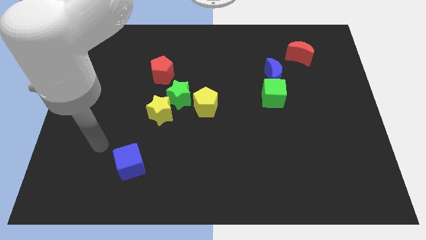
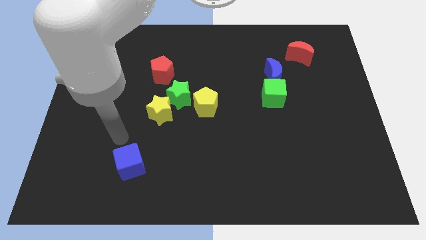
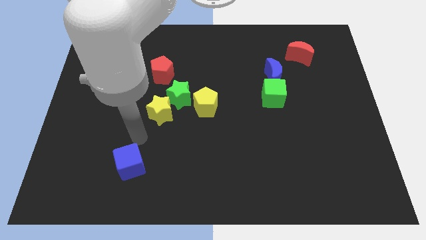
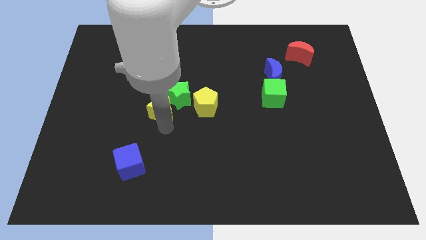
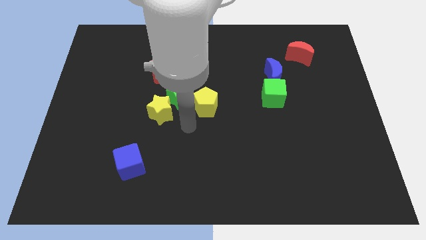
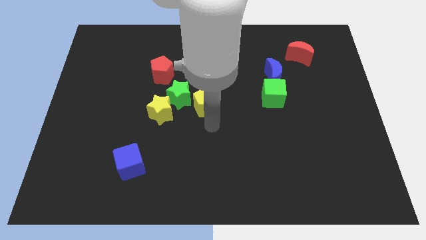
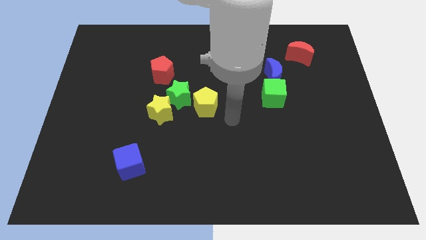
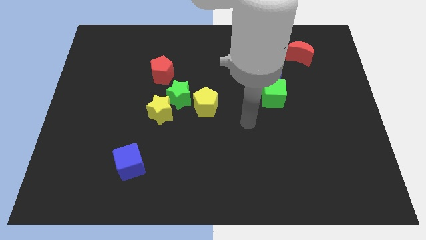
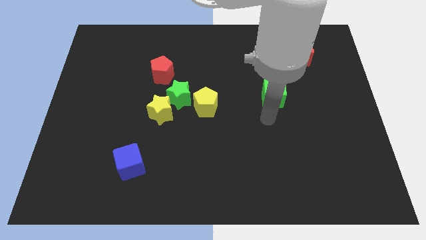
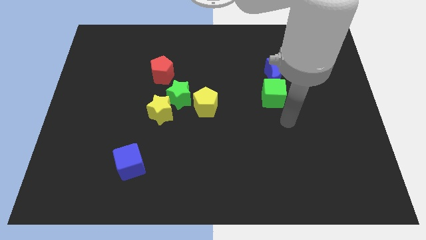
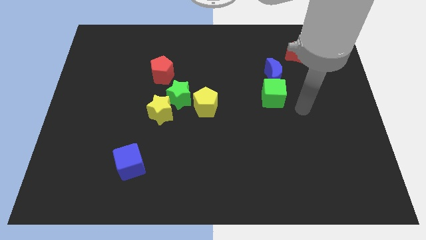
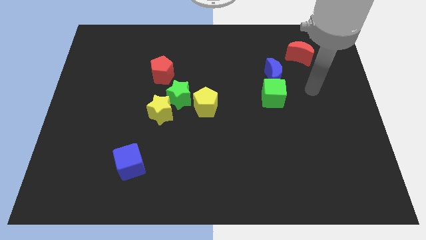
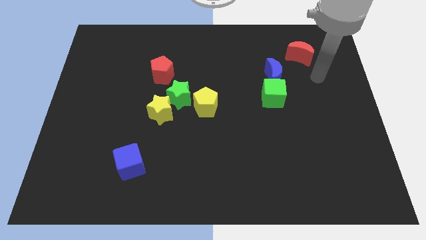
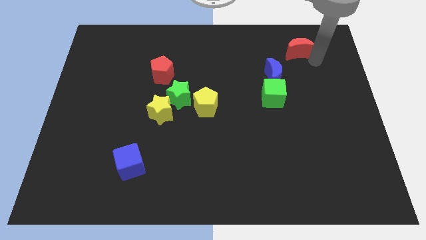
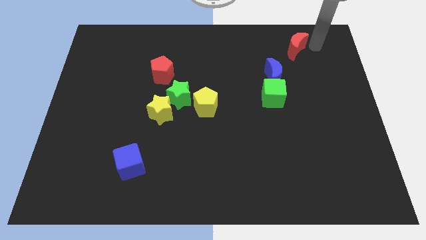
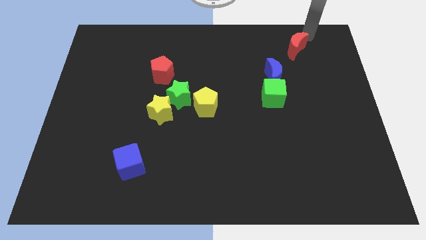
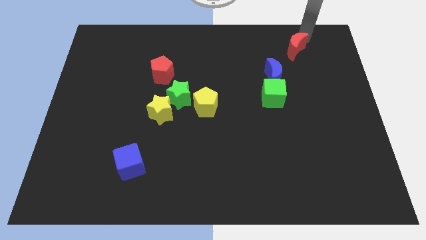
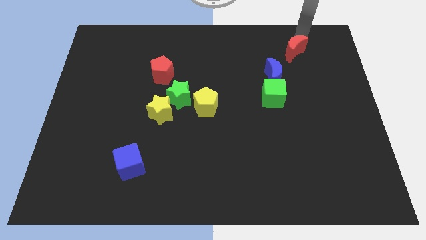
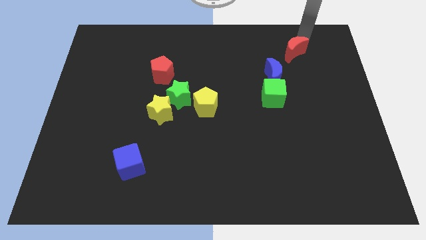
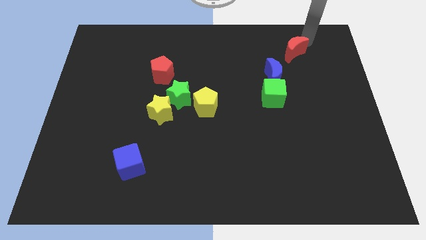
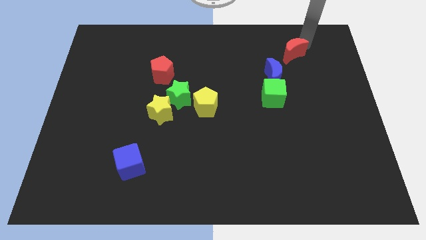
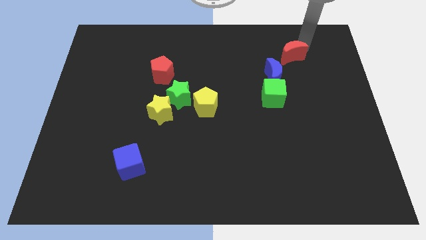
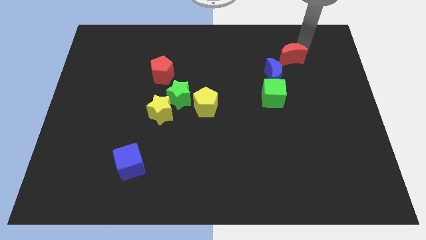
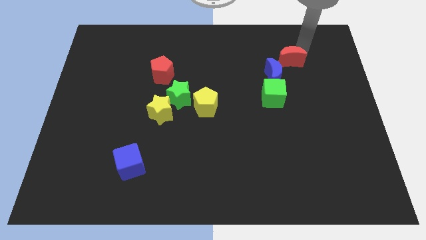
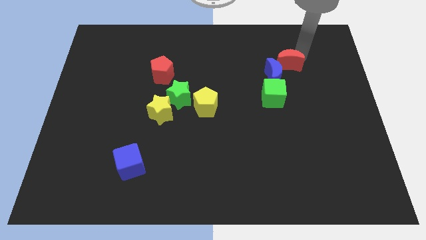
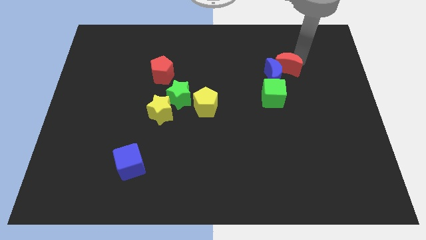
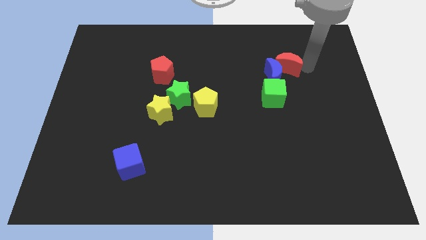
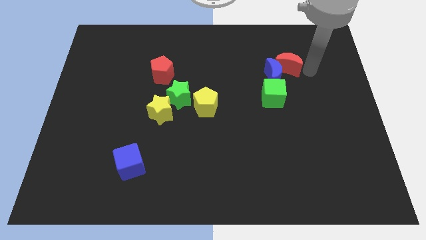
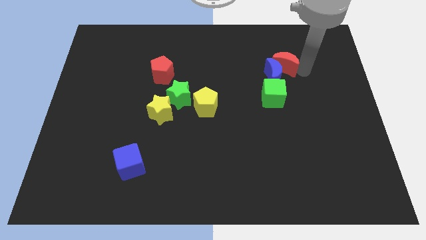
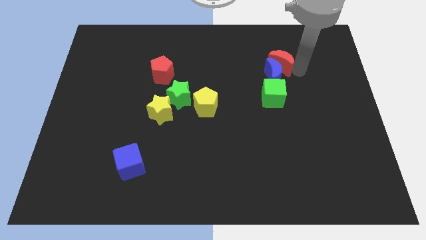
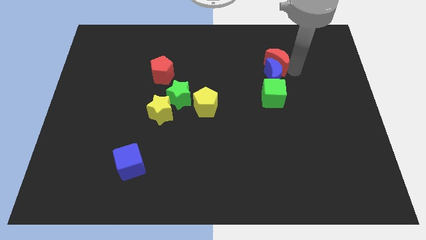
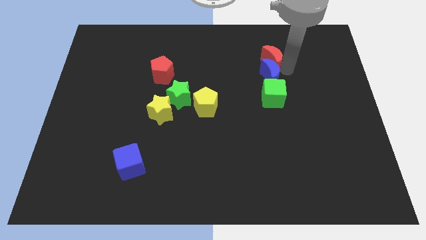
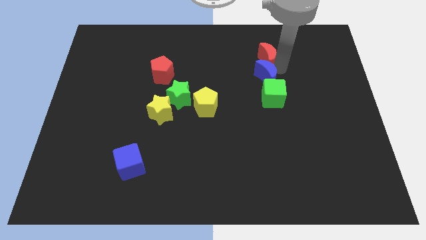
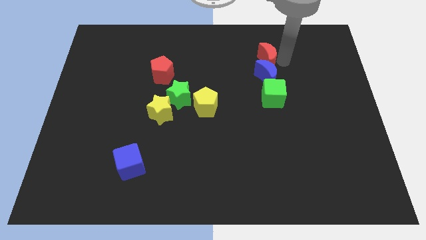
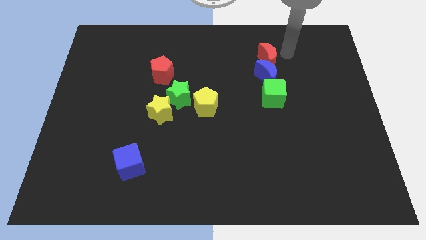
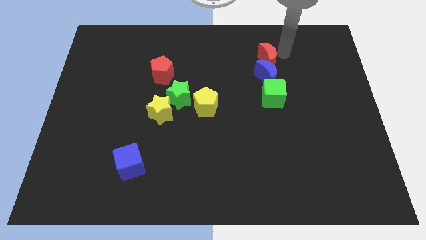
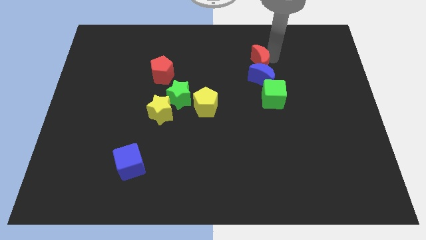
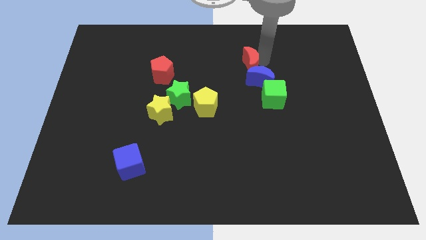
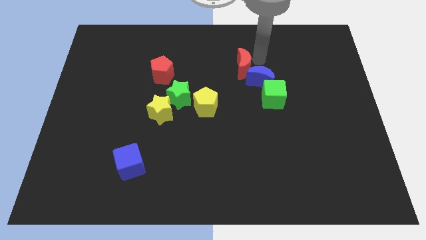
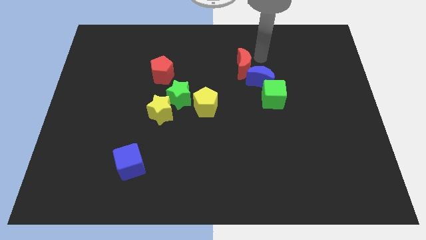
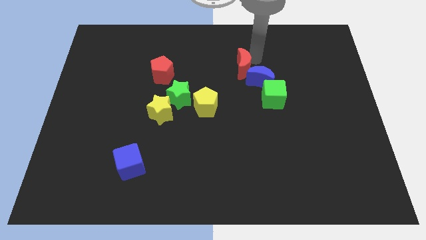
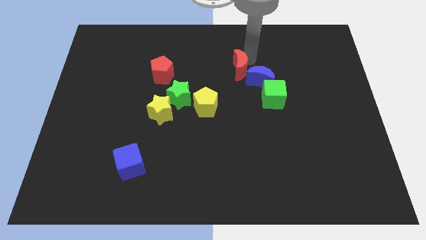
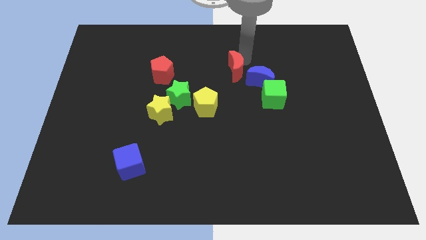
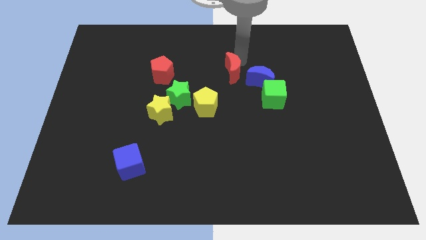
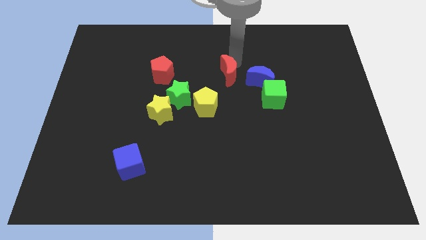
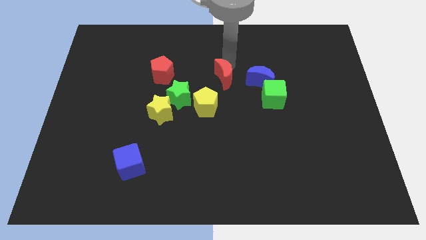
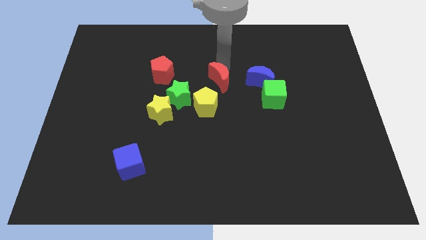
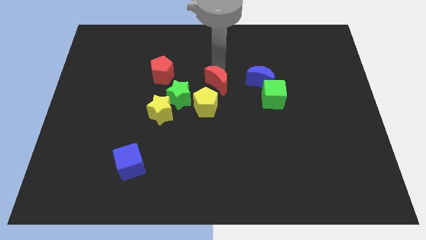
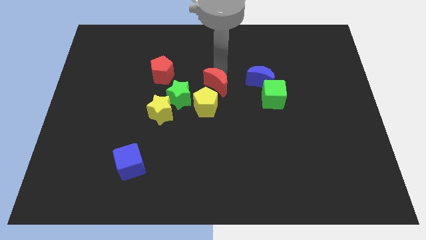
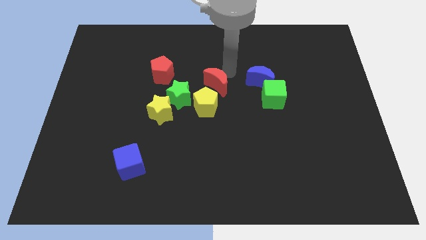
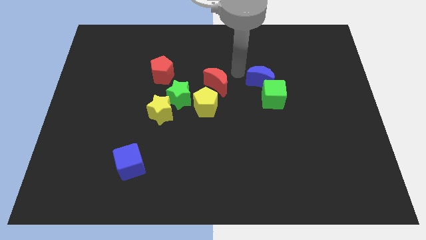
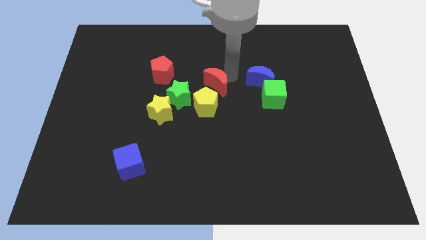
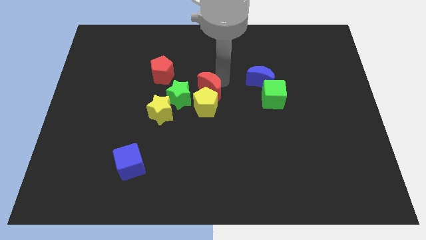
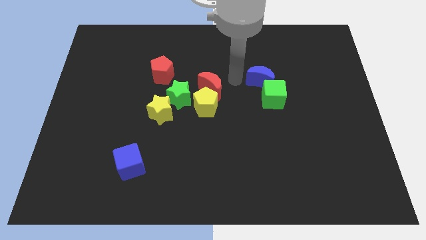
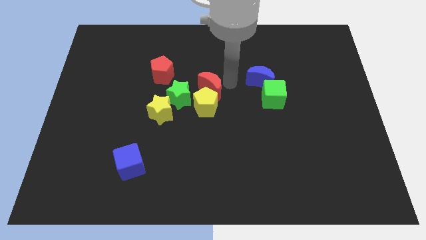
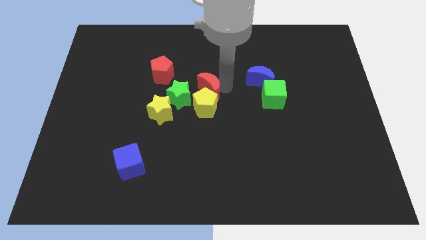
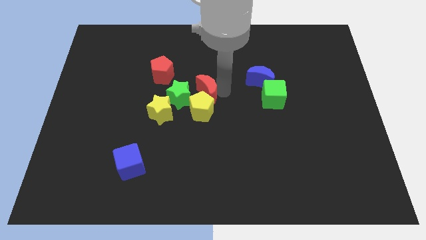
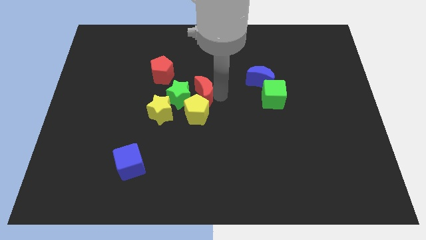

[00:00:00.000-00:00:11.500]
slide the red moon to the green star

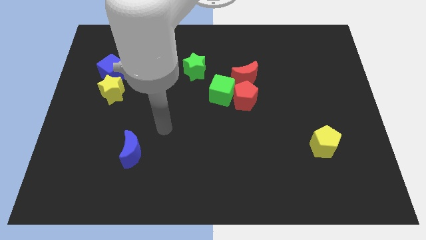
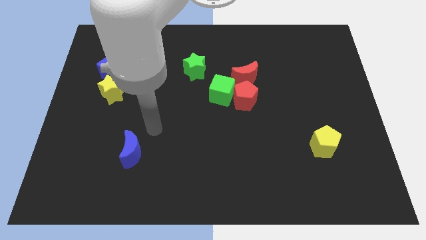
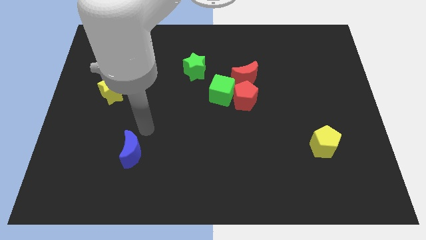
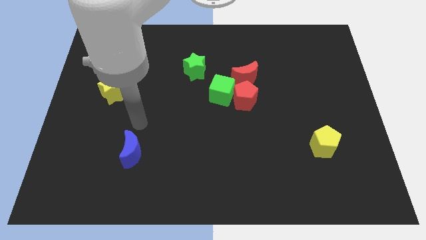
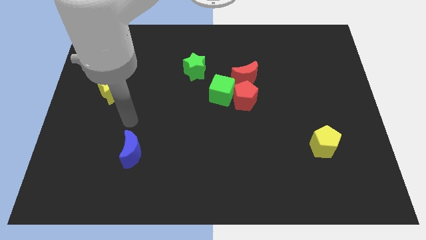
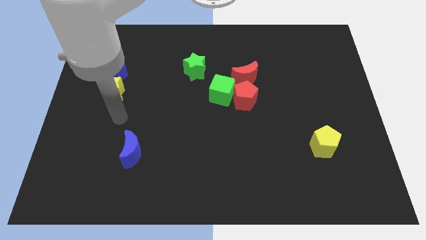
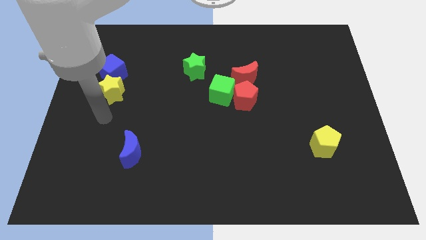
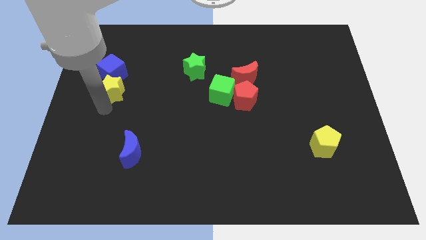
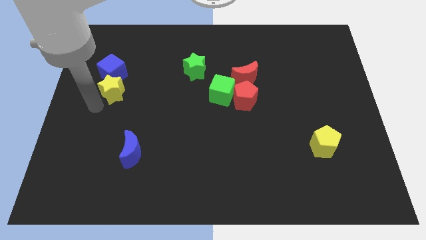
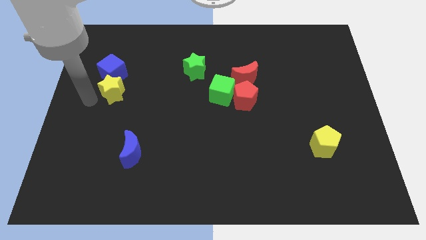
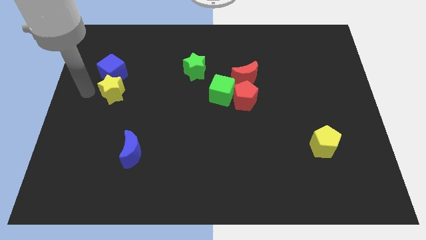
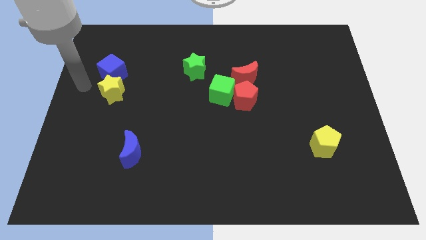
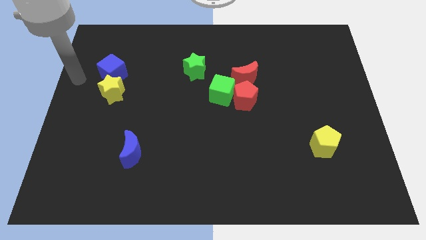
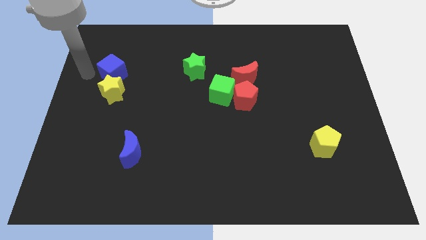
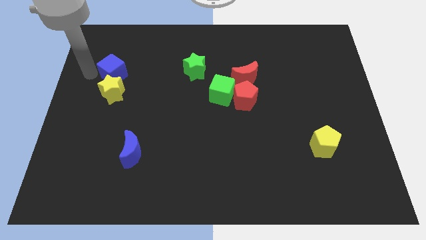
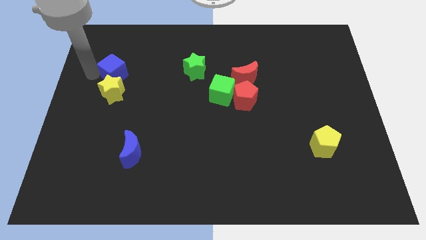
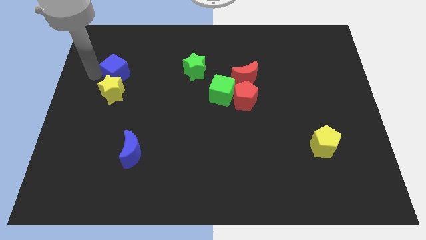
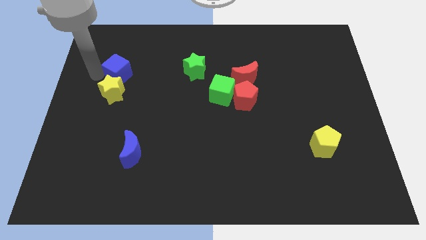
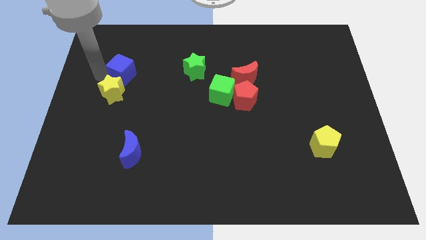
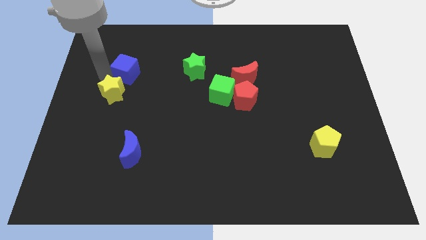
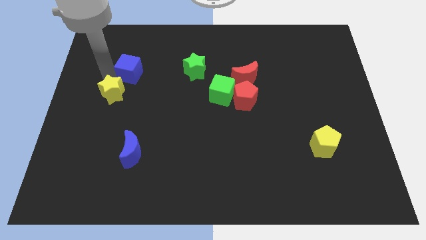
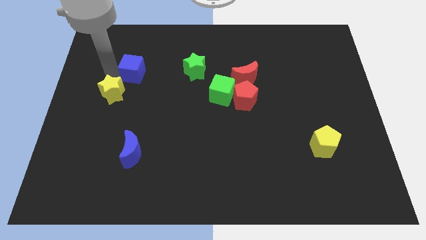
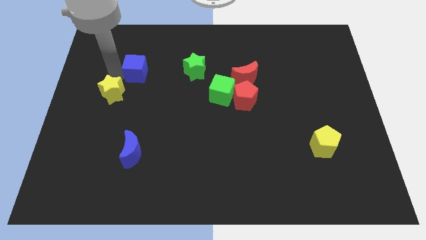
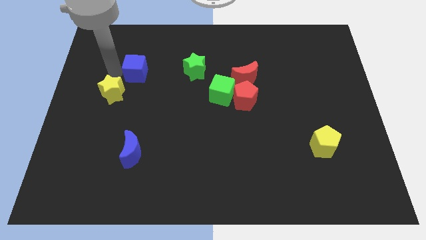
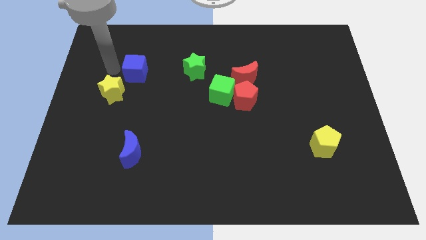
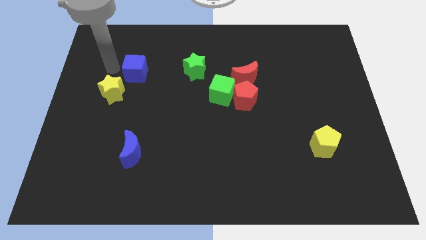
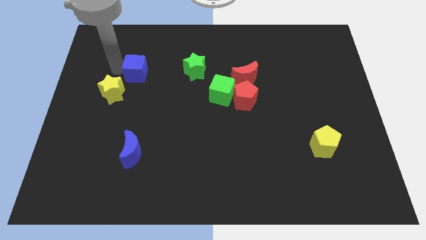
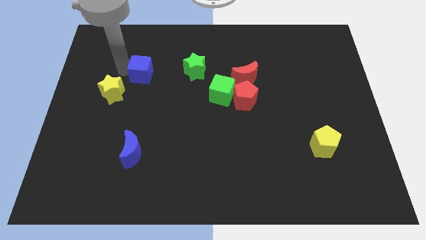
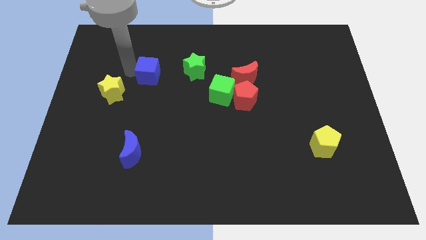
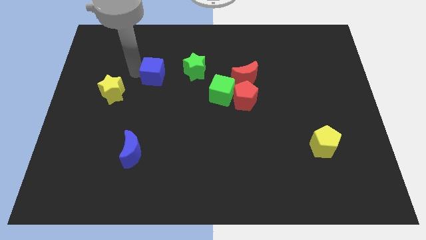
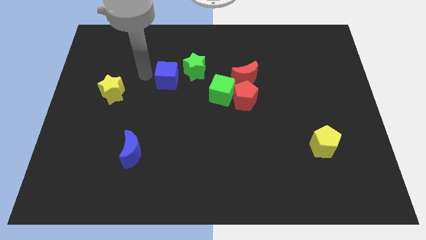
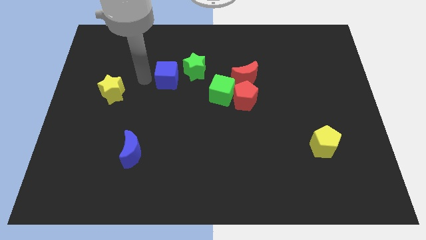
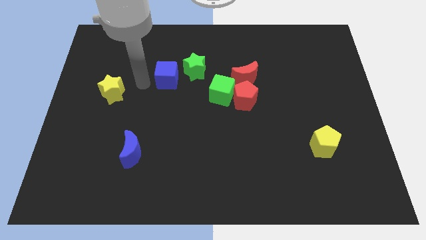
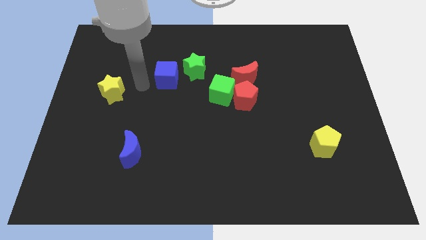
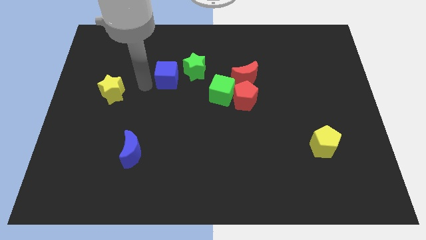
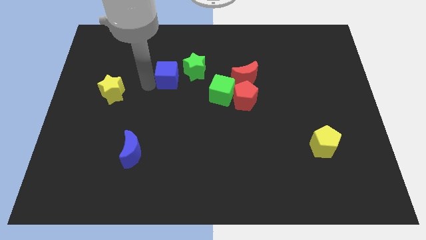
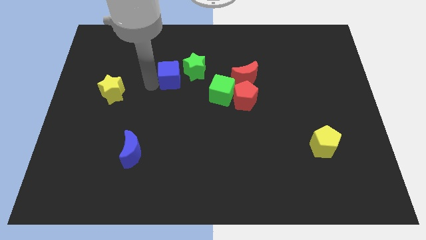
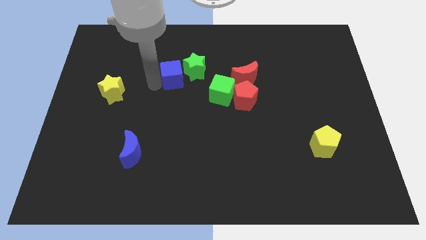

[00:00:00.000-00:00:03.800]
move the blue cube towards the green star
